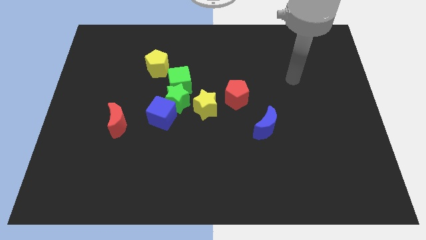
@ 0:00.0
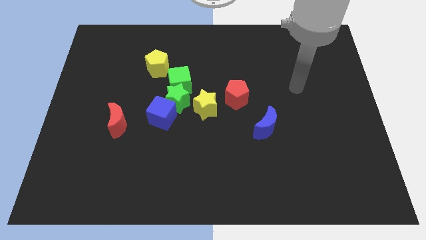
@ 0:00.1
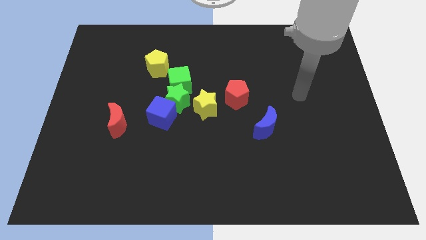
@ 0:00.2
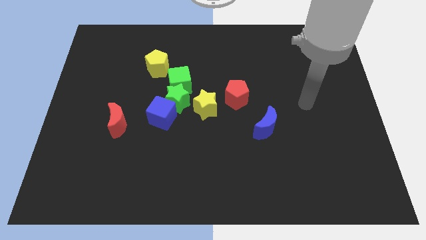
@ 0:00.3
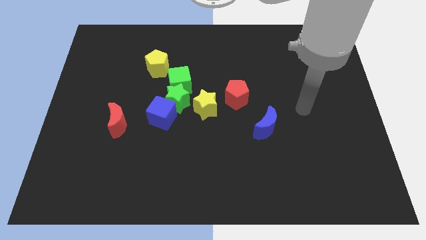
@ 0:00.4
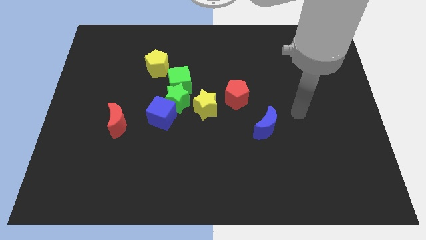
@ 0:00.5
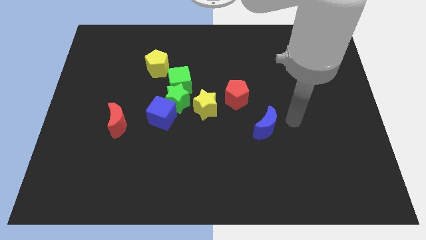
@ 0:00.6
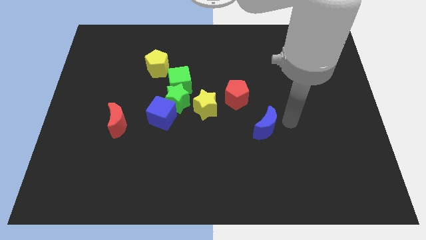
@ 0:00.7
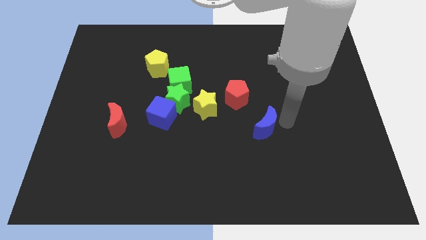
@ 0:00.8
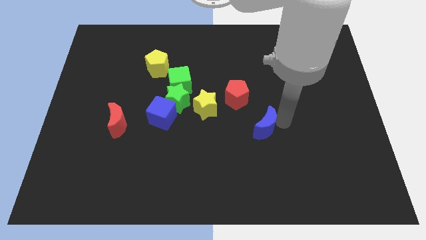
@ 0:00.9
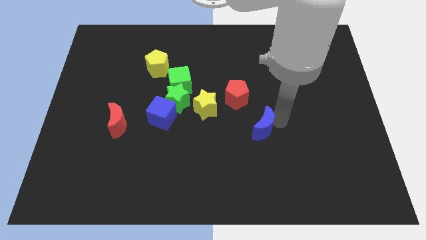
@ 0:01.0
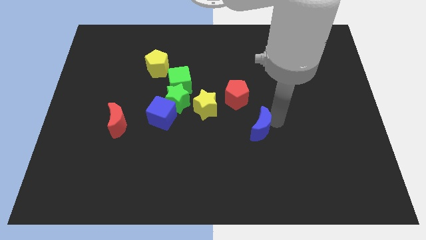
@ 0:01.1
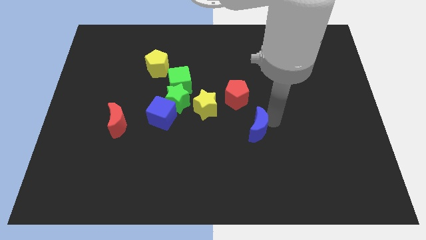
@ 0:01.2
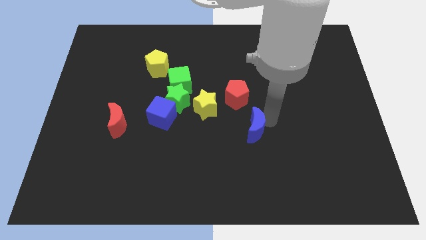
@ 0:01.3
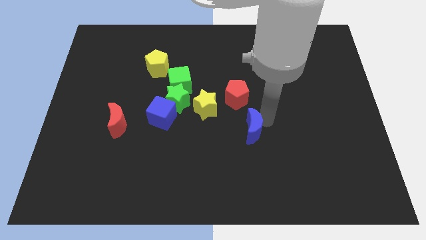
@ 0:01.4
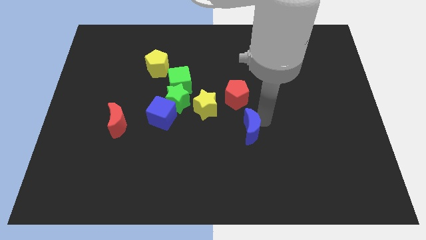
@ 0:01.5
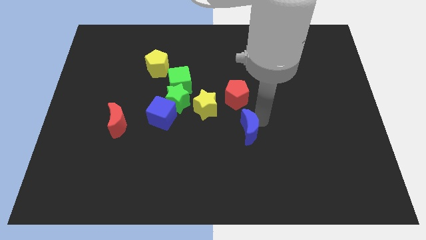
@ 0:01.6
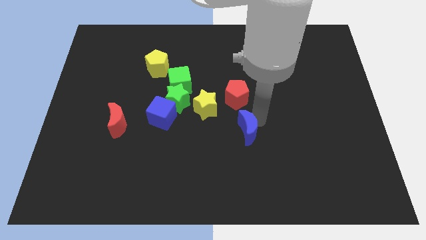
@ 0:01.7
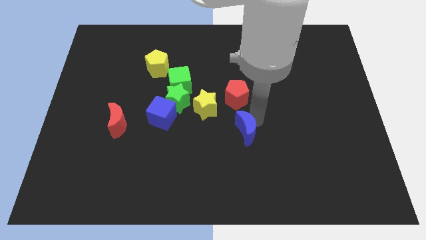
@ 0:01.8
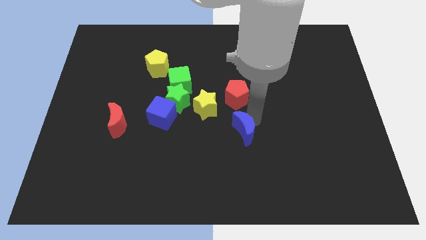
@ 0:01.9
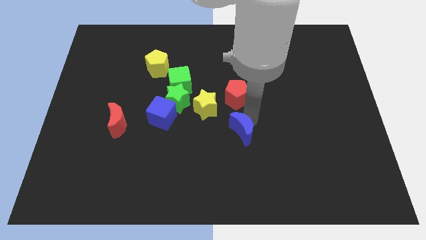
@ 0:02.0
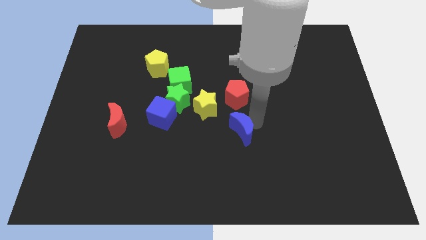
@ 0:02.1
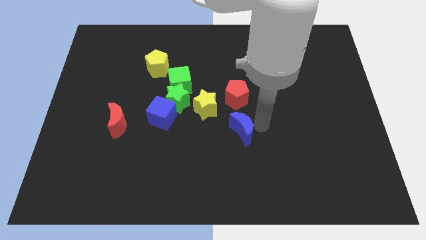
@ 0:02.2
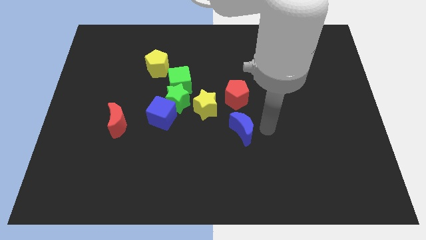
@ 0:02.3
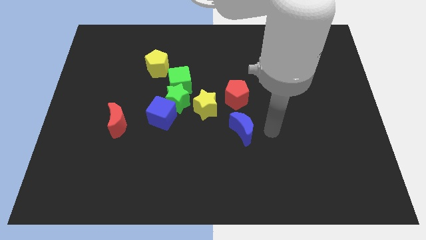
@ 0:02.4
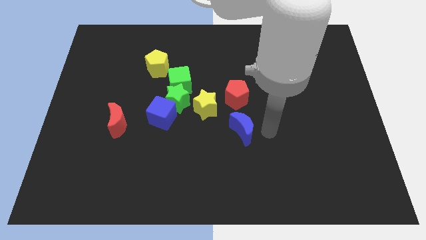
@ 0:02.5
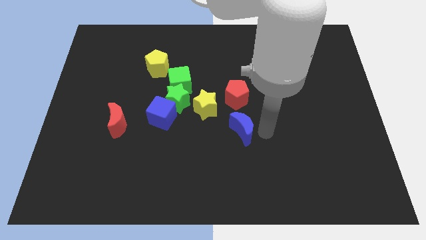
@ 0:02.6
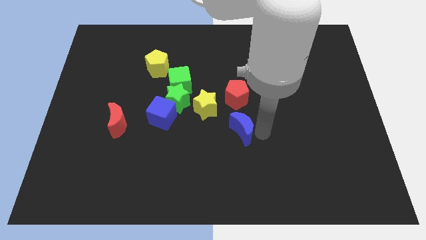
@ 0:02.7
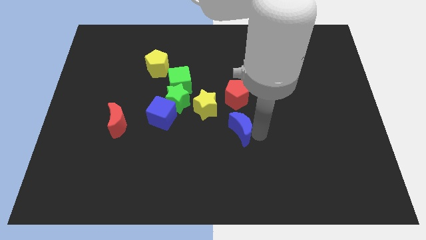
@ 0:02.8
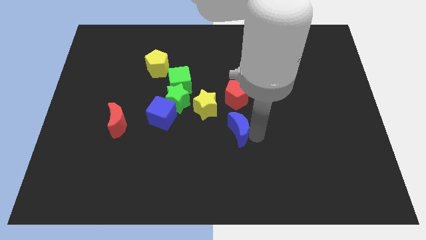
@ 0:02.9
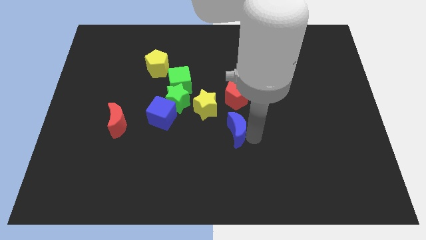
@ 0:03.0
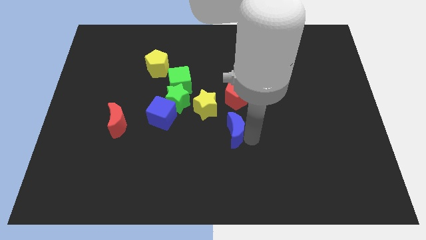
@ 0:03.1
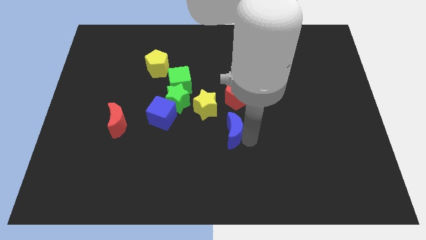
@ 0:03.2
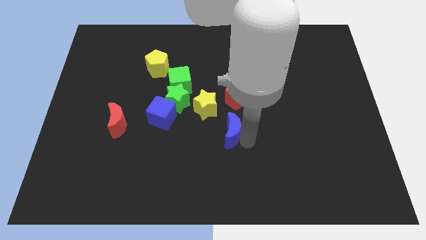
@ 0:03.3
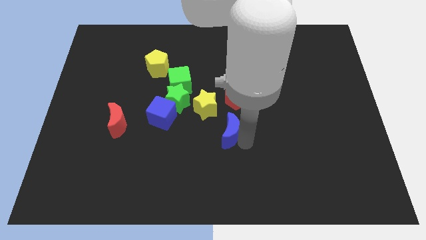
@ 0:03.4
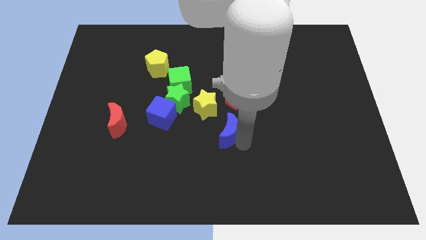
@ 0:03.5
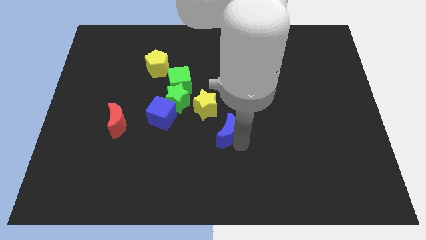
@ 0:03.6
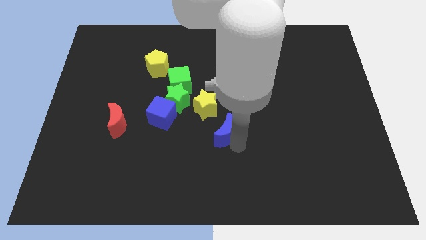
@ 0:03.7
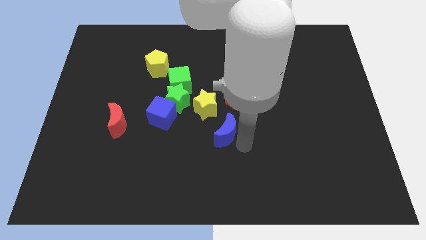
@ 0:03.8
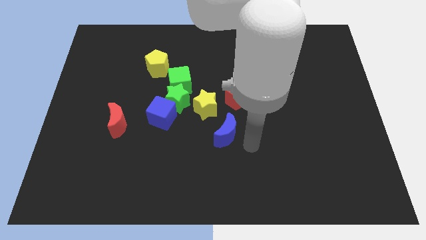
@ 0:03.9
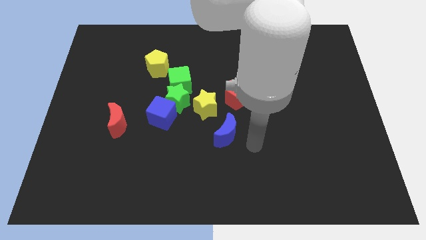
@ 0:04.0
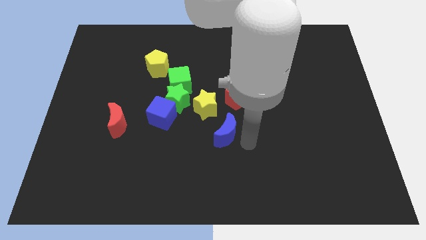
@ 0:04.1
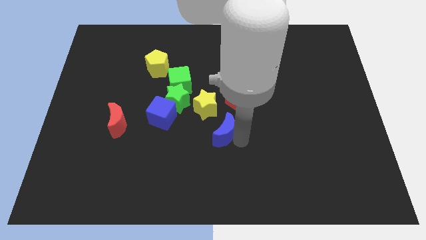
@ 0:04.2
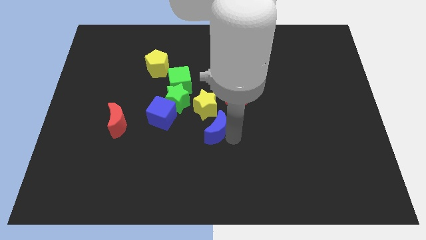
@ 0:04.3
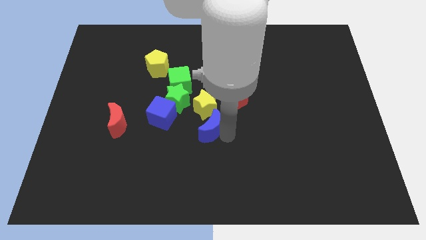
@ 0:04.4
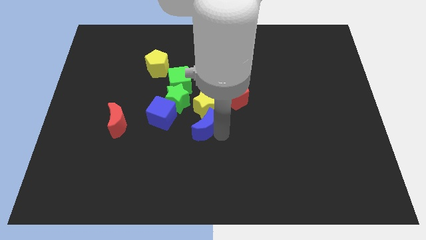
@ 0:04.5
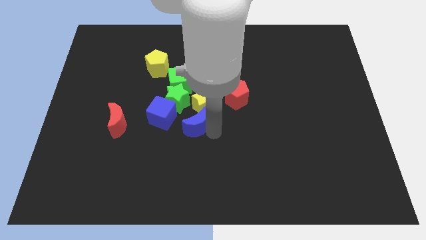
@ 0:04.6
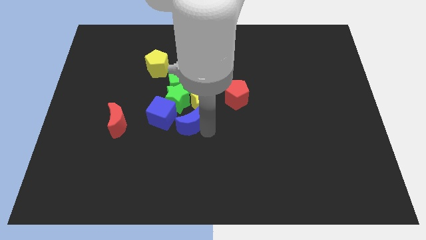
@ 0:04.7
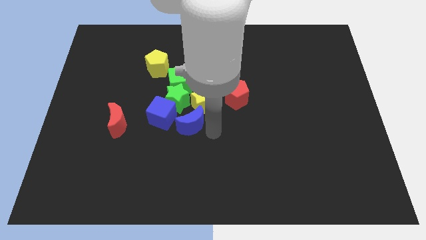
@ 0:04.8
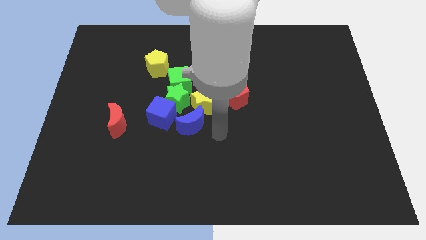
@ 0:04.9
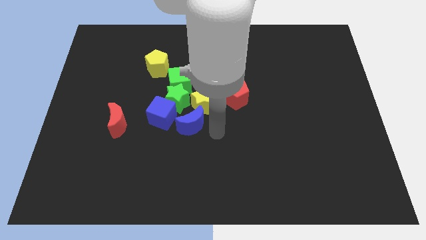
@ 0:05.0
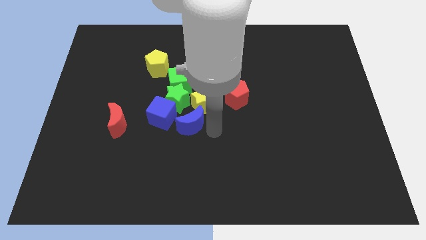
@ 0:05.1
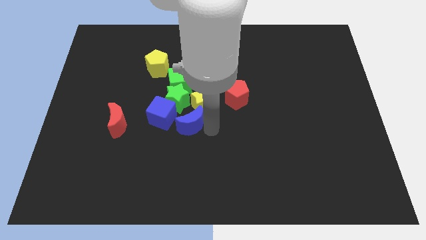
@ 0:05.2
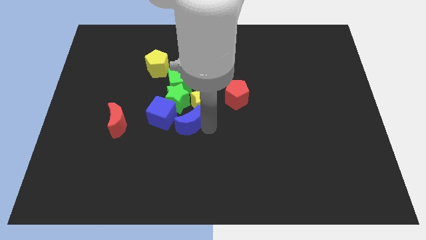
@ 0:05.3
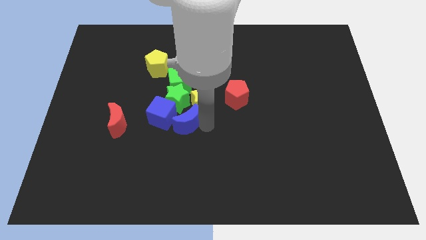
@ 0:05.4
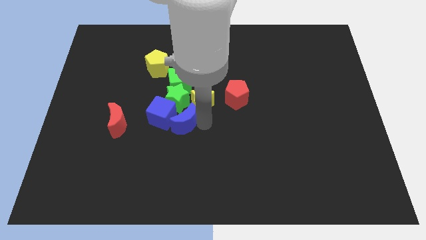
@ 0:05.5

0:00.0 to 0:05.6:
slide the blue moon next to the blue cube

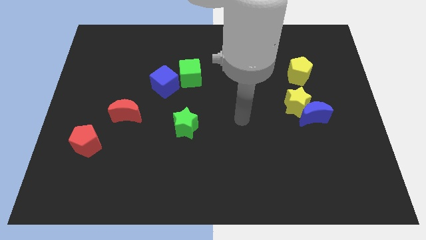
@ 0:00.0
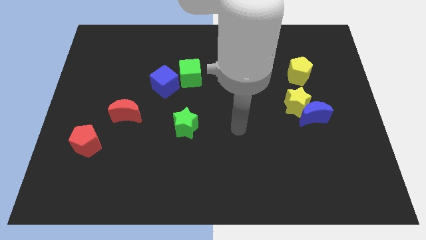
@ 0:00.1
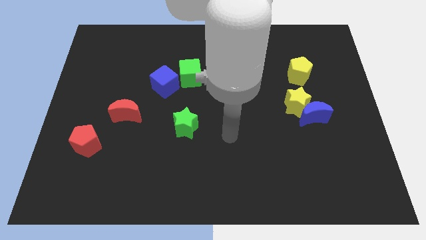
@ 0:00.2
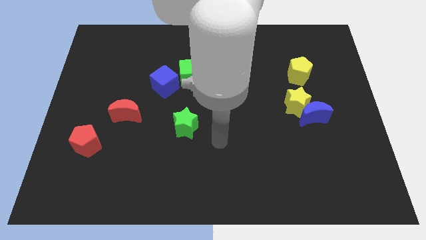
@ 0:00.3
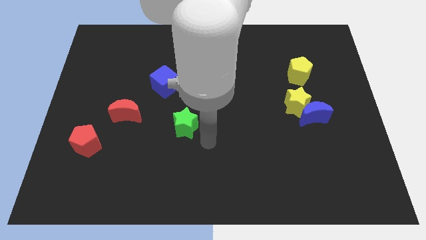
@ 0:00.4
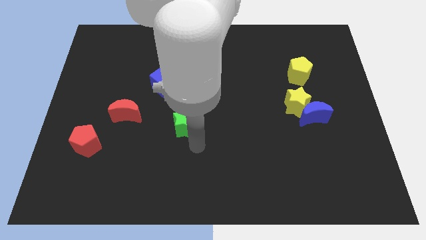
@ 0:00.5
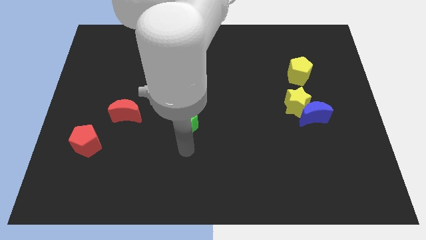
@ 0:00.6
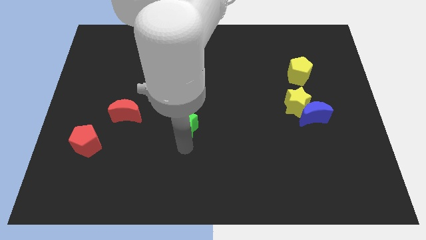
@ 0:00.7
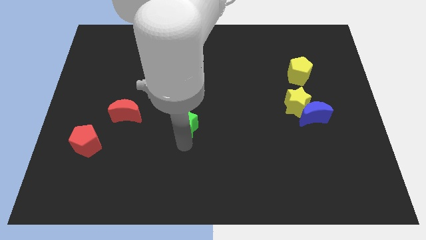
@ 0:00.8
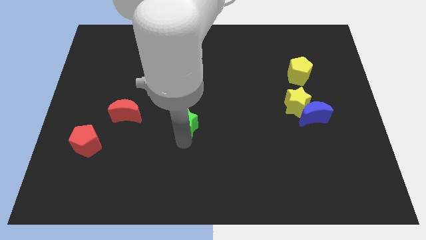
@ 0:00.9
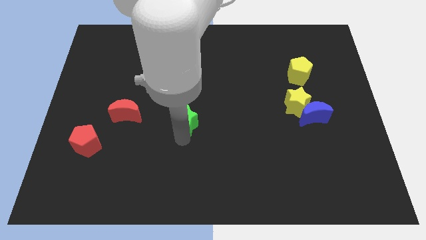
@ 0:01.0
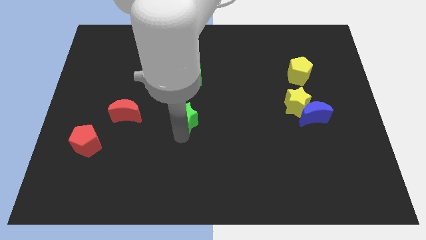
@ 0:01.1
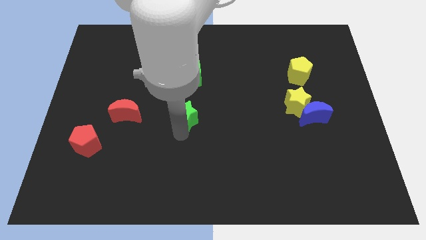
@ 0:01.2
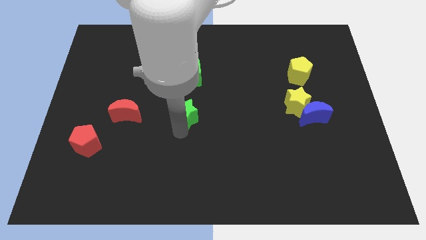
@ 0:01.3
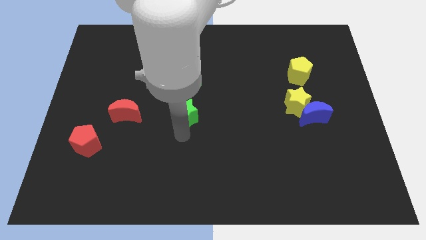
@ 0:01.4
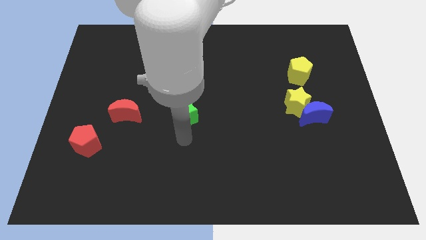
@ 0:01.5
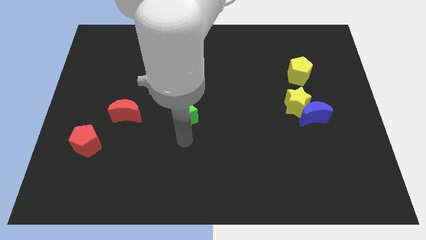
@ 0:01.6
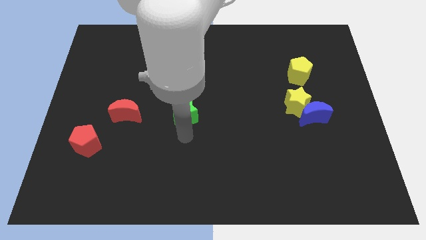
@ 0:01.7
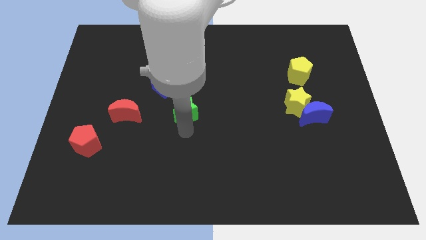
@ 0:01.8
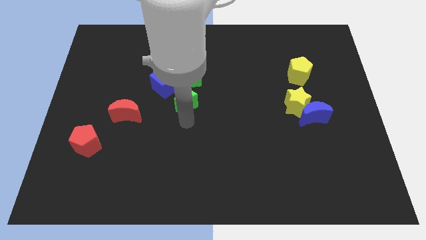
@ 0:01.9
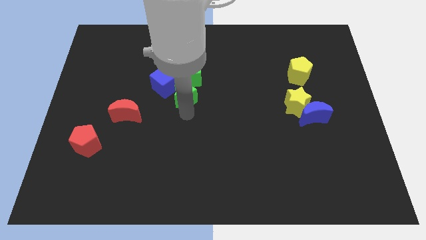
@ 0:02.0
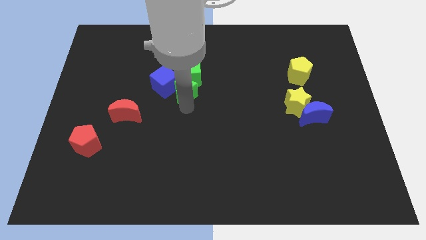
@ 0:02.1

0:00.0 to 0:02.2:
put the green star to the green cube
